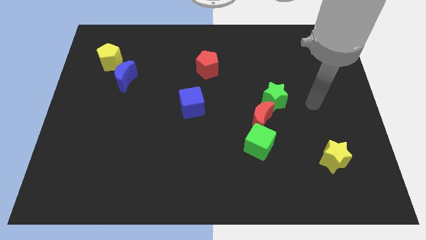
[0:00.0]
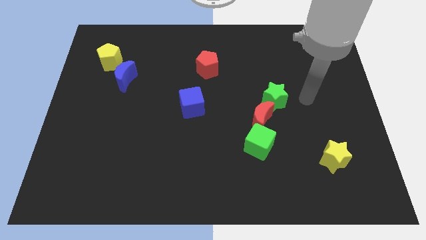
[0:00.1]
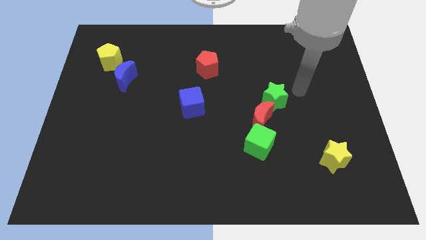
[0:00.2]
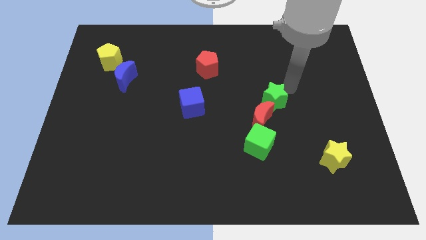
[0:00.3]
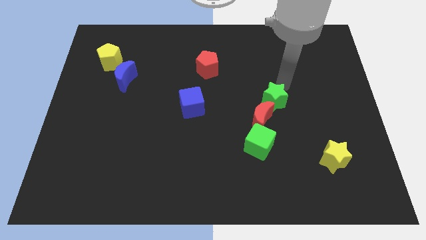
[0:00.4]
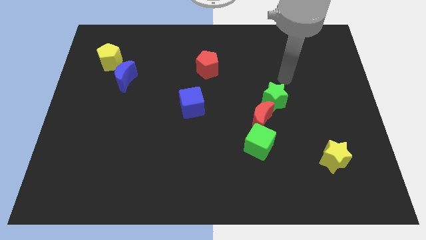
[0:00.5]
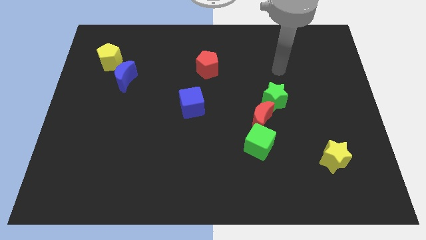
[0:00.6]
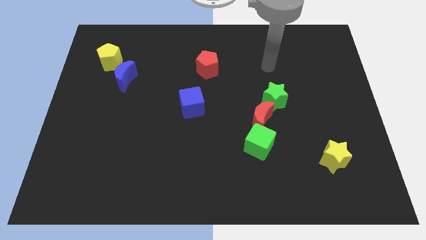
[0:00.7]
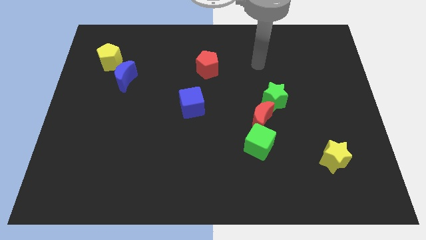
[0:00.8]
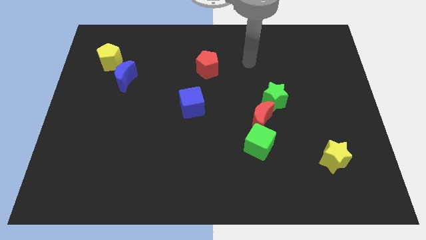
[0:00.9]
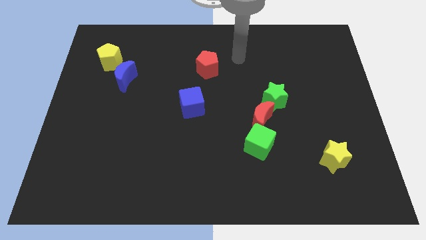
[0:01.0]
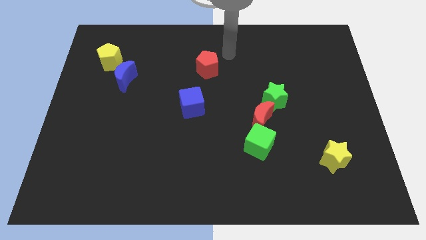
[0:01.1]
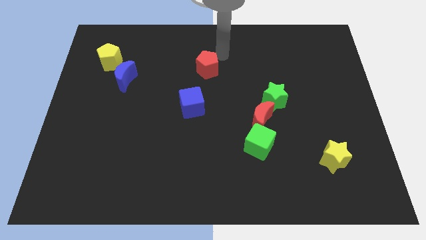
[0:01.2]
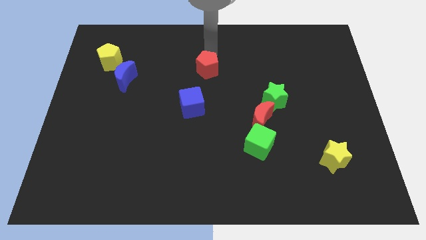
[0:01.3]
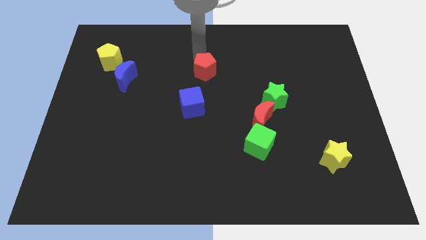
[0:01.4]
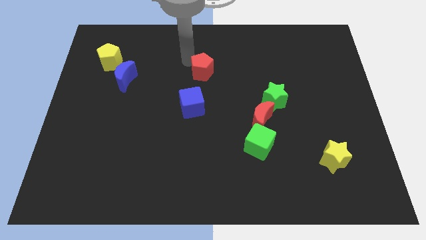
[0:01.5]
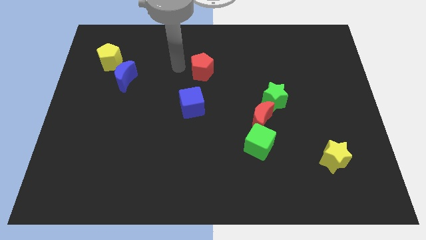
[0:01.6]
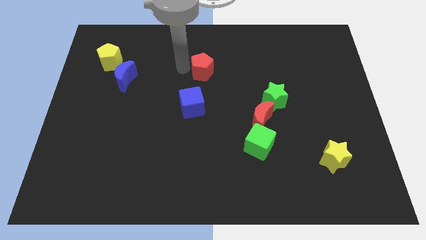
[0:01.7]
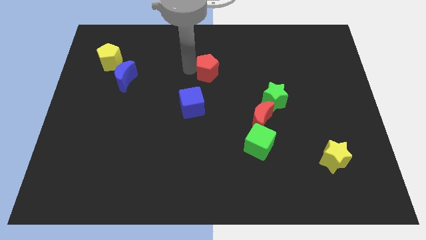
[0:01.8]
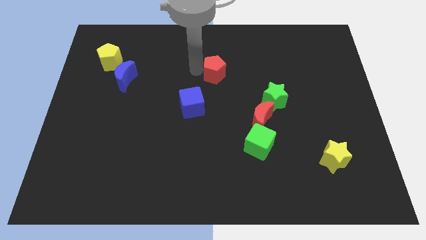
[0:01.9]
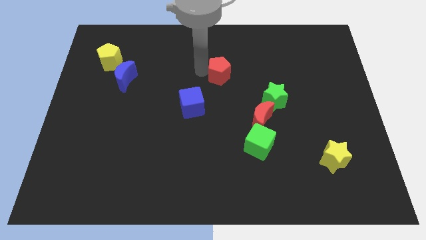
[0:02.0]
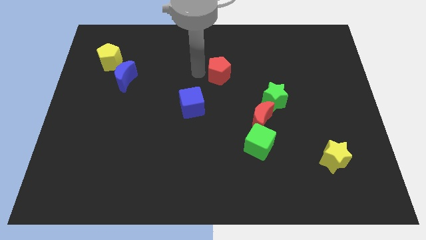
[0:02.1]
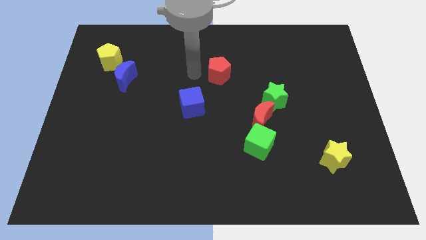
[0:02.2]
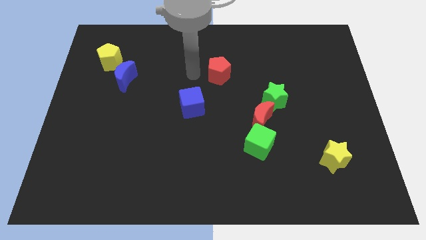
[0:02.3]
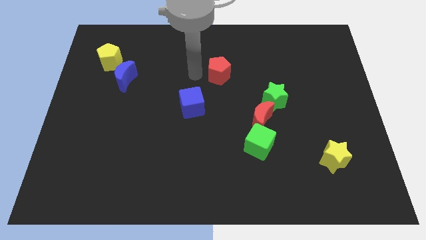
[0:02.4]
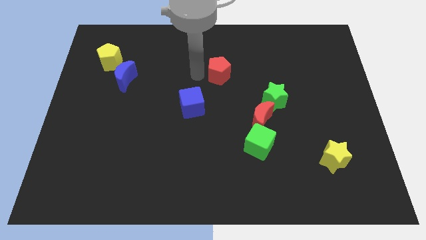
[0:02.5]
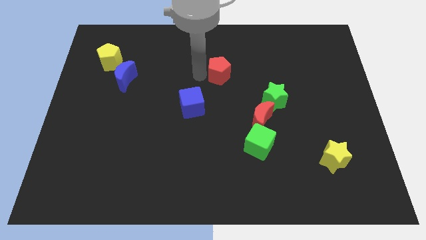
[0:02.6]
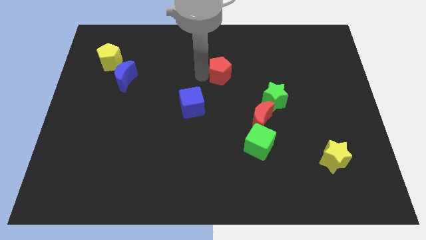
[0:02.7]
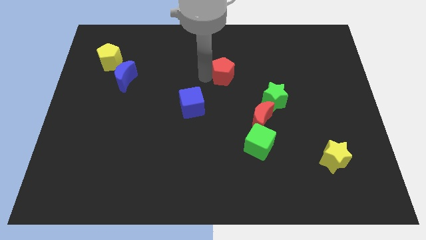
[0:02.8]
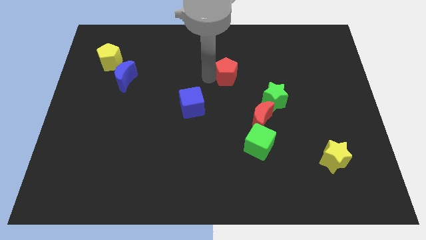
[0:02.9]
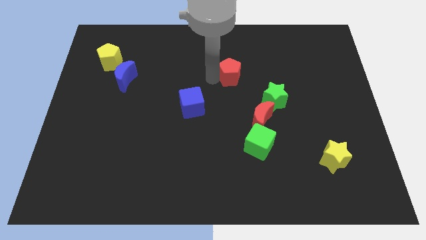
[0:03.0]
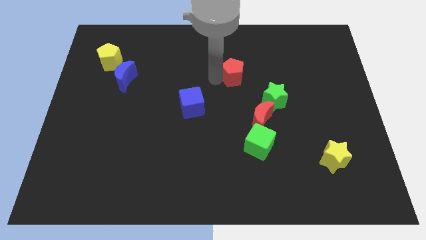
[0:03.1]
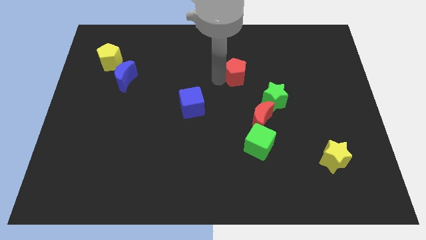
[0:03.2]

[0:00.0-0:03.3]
slightly move the red pentagon to the right

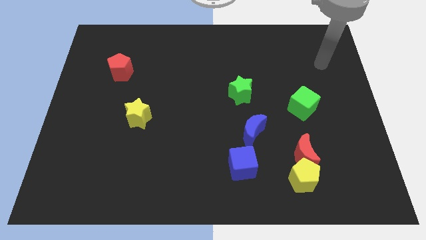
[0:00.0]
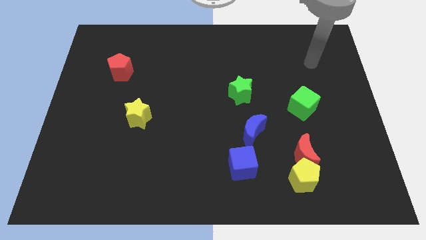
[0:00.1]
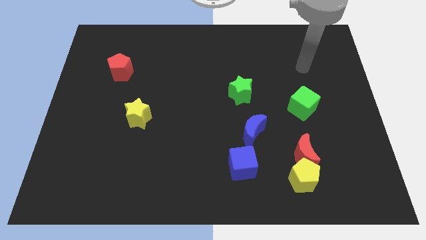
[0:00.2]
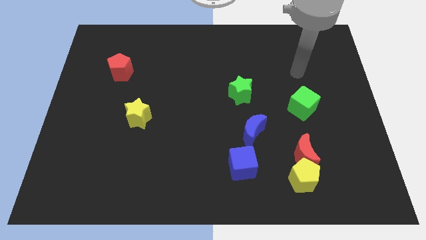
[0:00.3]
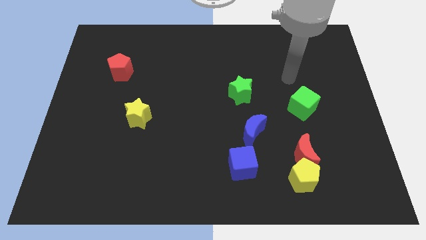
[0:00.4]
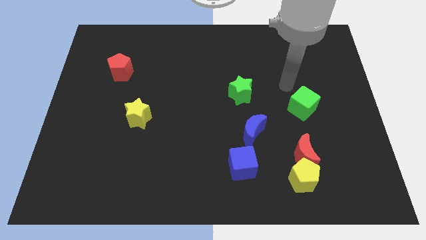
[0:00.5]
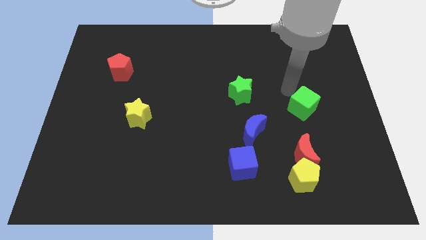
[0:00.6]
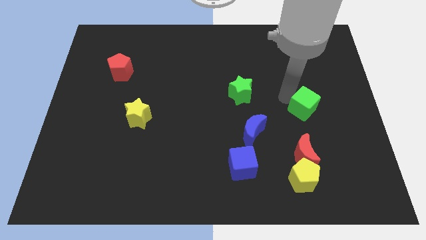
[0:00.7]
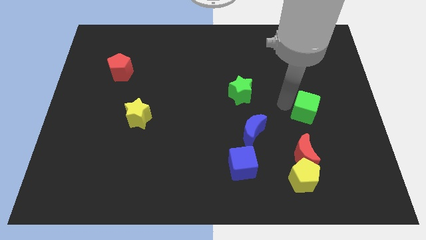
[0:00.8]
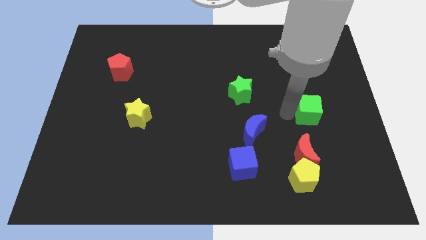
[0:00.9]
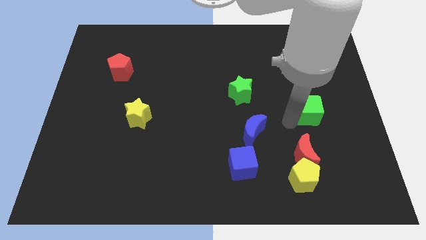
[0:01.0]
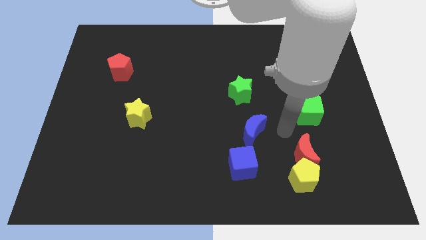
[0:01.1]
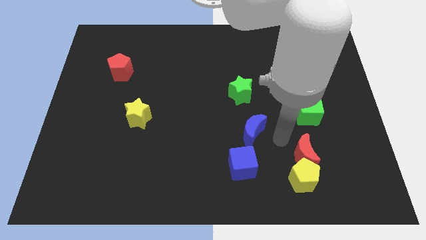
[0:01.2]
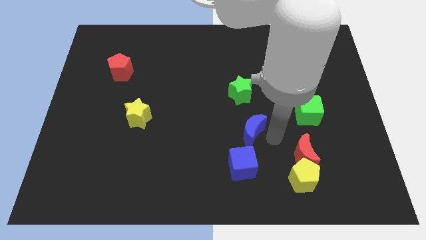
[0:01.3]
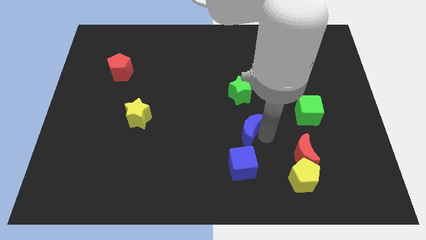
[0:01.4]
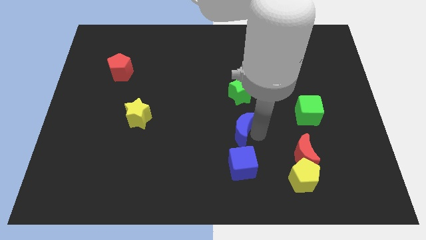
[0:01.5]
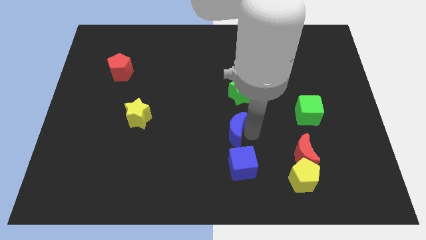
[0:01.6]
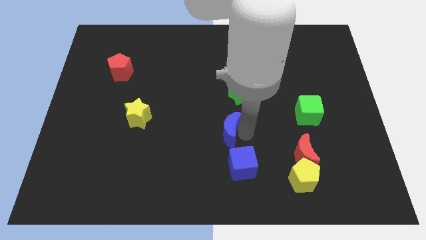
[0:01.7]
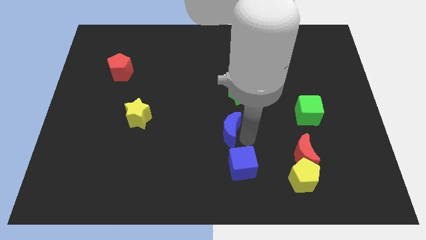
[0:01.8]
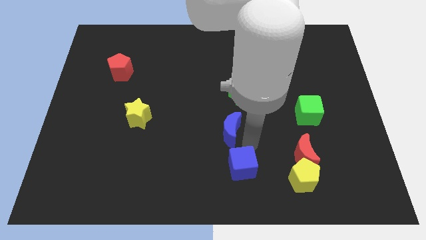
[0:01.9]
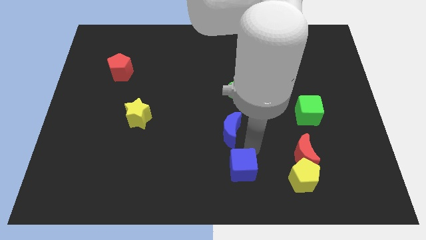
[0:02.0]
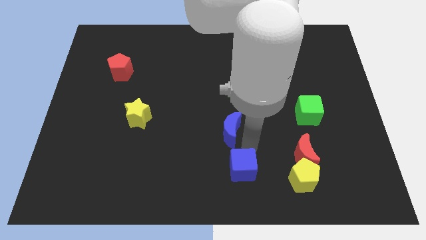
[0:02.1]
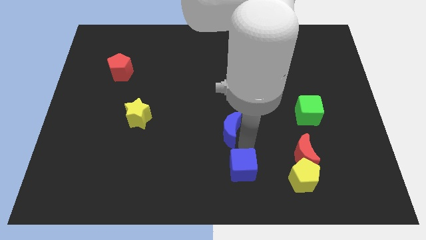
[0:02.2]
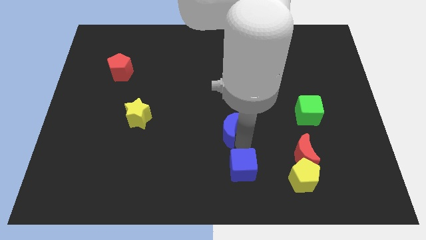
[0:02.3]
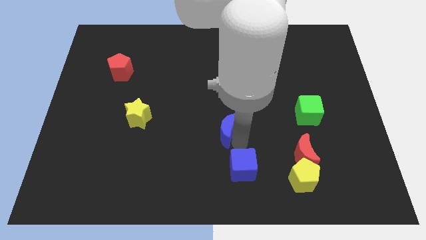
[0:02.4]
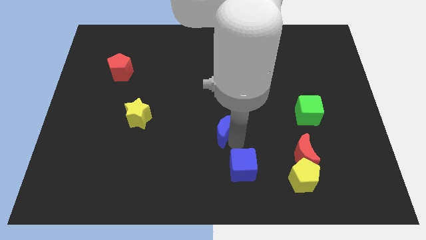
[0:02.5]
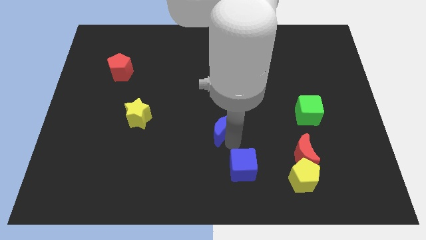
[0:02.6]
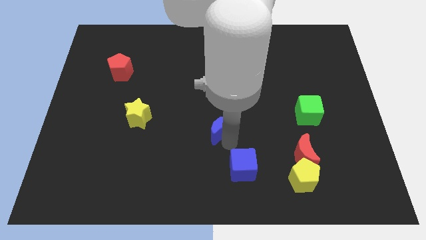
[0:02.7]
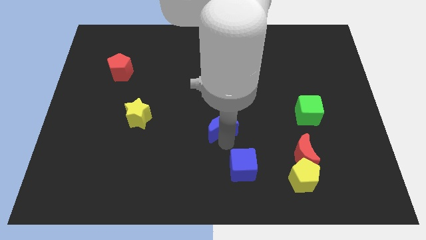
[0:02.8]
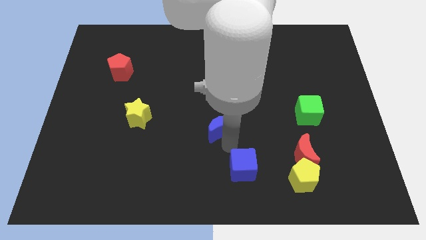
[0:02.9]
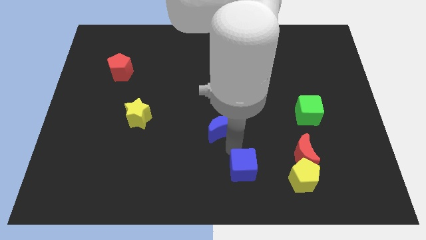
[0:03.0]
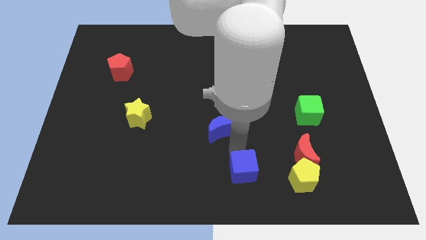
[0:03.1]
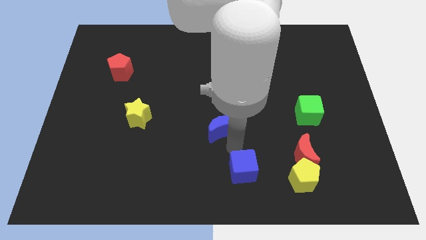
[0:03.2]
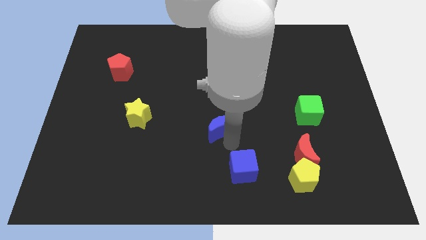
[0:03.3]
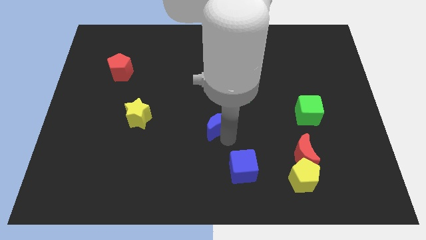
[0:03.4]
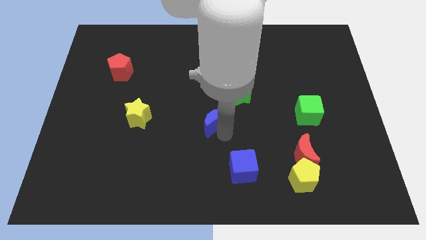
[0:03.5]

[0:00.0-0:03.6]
slightly slide the blue moon up and then to the left

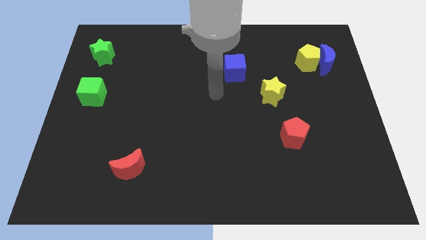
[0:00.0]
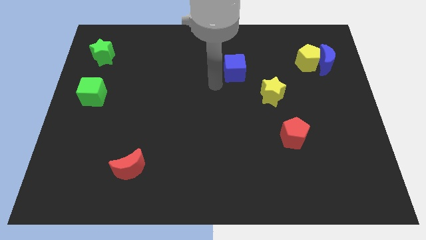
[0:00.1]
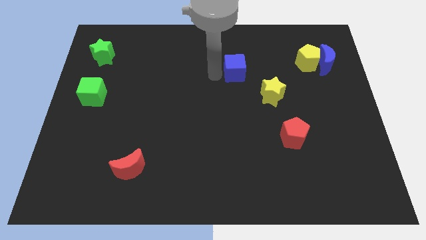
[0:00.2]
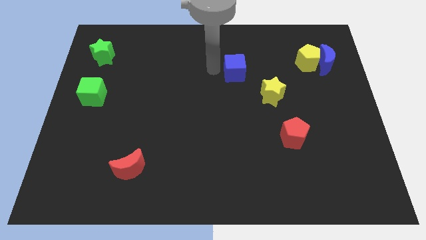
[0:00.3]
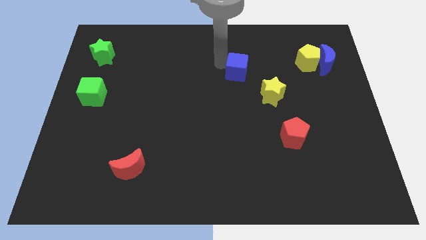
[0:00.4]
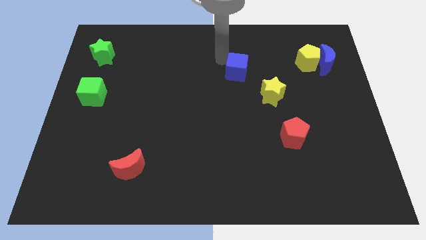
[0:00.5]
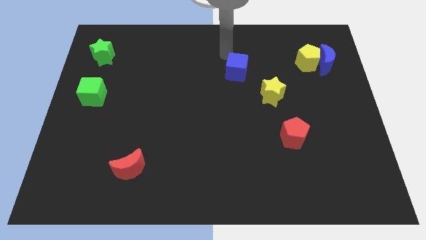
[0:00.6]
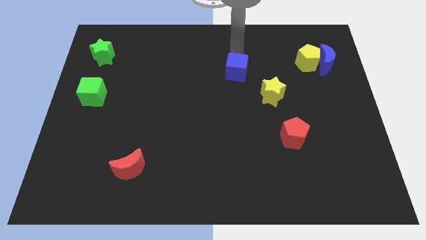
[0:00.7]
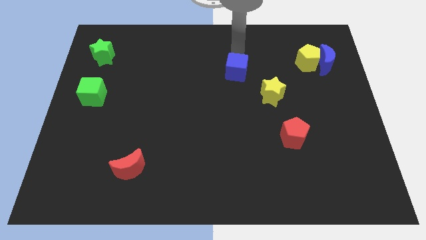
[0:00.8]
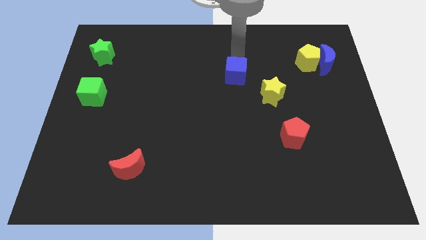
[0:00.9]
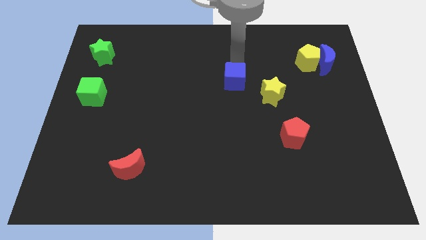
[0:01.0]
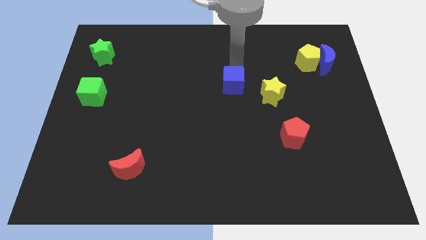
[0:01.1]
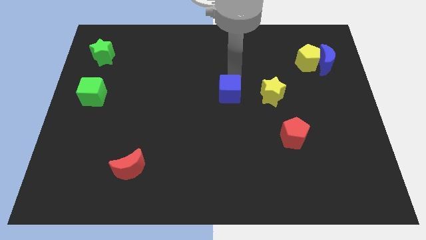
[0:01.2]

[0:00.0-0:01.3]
move the blue cube slightly downwards
